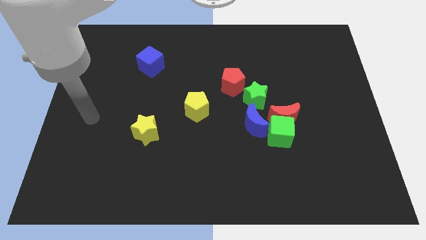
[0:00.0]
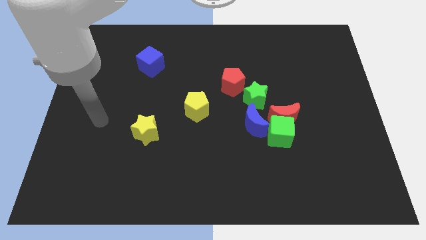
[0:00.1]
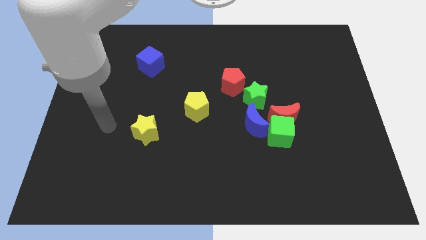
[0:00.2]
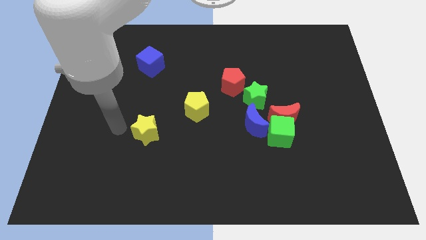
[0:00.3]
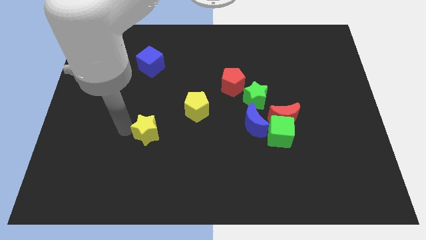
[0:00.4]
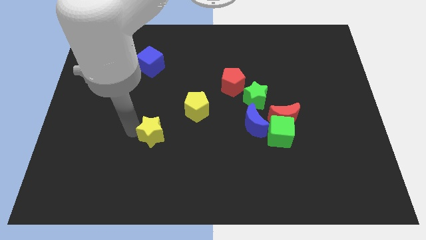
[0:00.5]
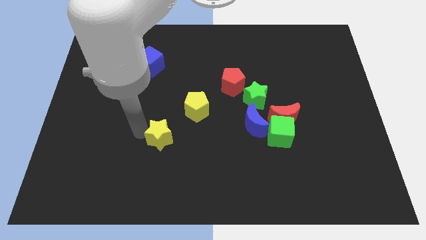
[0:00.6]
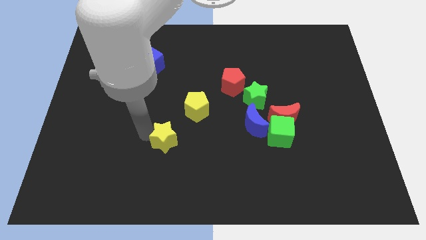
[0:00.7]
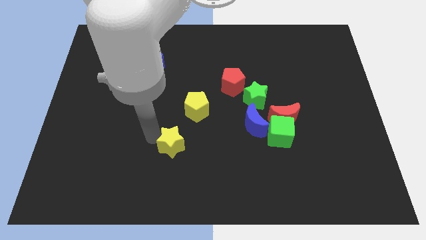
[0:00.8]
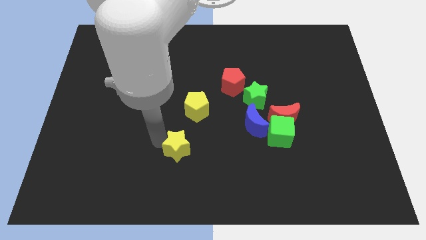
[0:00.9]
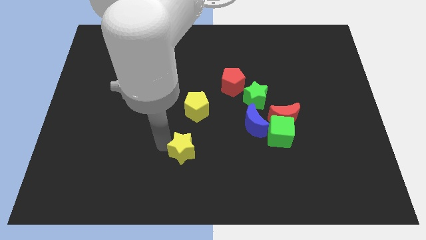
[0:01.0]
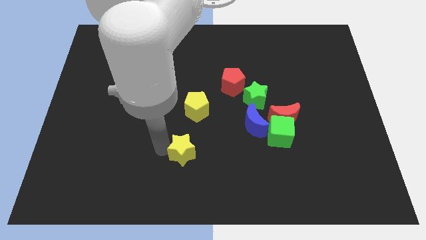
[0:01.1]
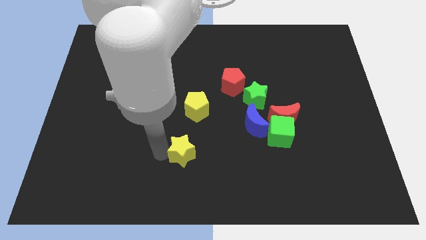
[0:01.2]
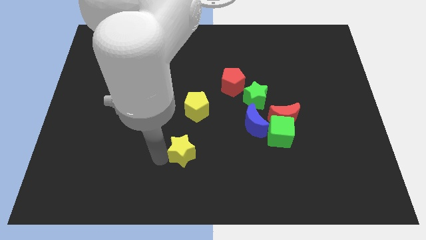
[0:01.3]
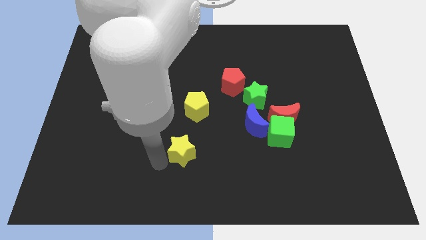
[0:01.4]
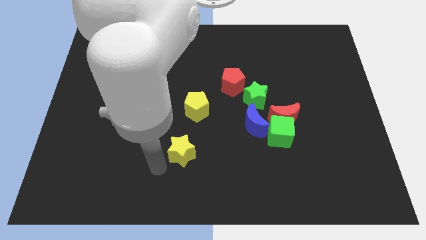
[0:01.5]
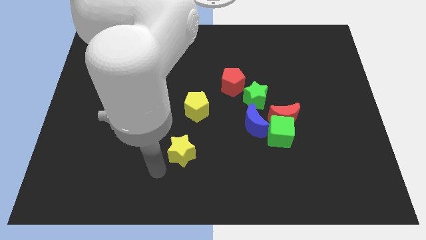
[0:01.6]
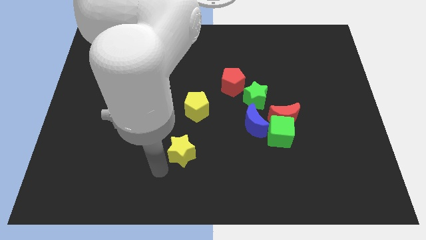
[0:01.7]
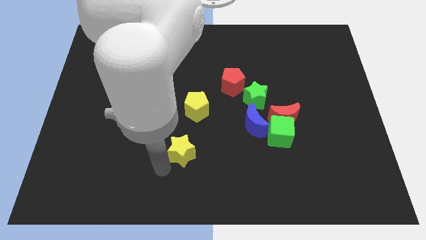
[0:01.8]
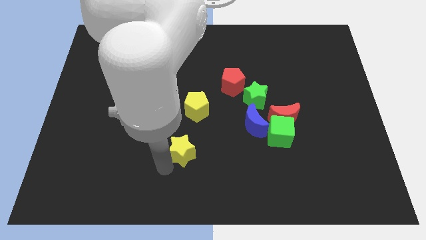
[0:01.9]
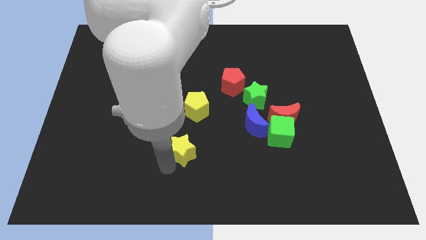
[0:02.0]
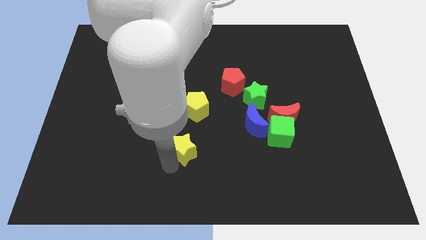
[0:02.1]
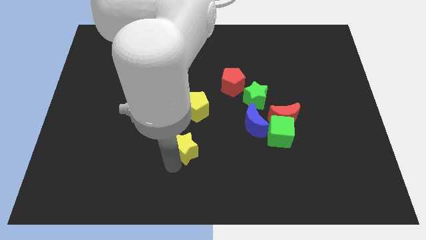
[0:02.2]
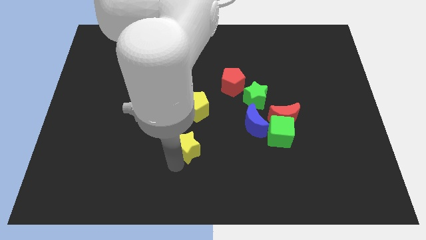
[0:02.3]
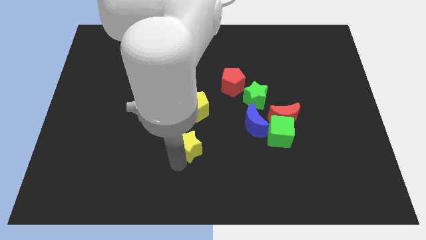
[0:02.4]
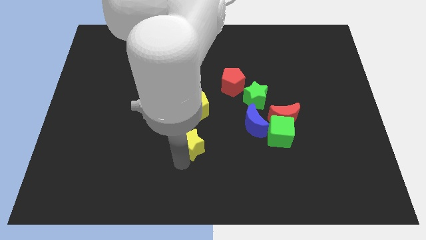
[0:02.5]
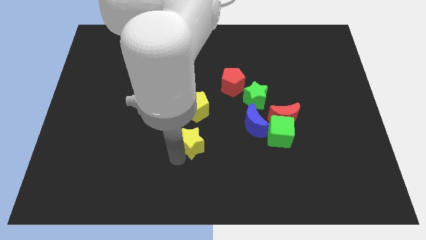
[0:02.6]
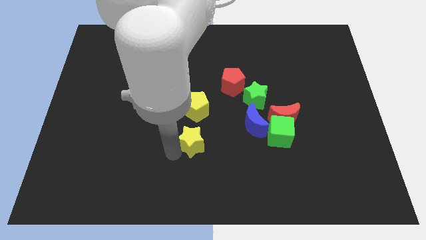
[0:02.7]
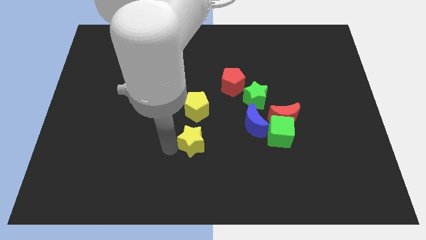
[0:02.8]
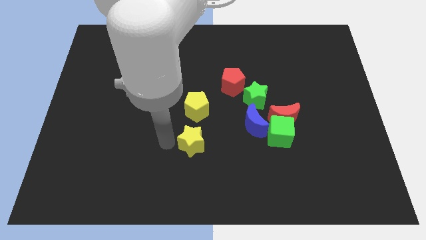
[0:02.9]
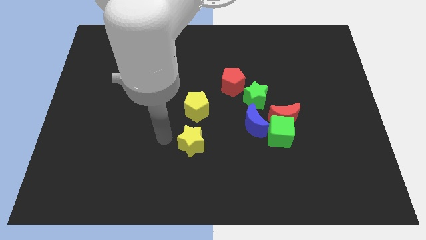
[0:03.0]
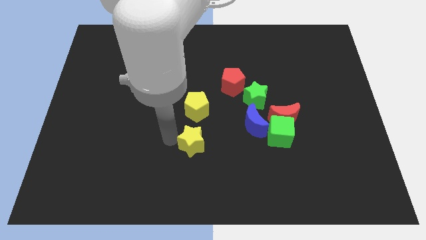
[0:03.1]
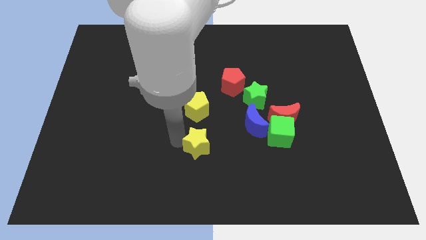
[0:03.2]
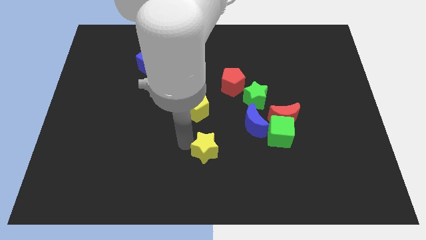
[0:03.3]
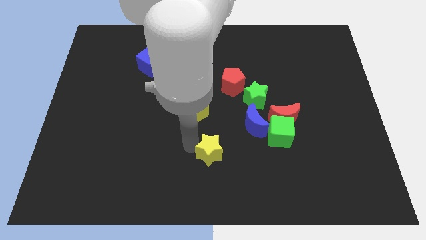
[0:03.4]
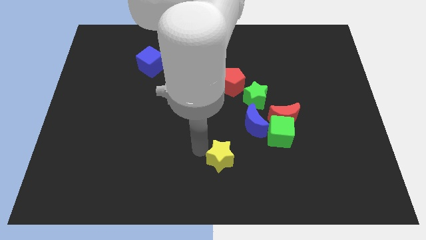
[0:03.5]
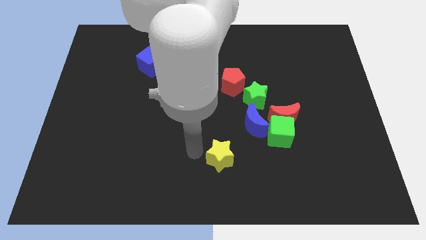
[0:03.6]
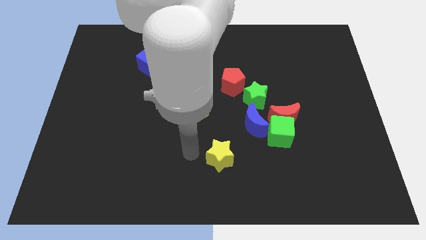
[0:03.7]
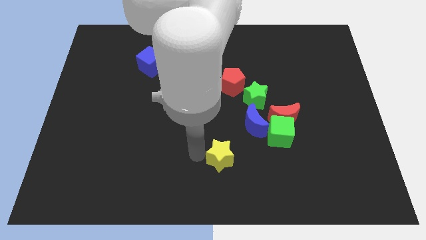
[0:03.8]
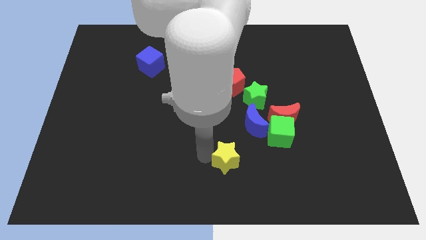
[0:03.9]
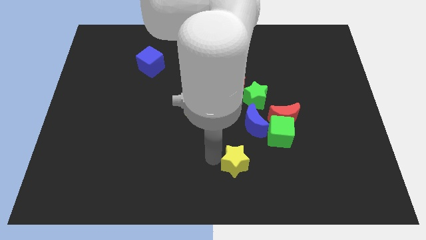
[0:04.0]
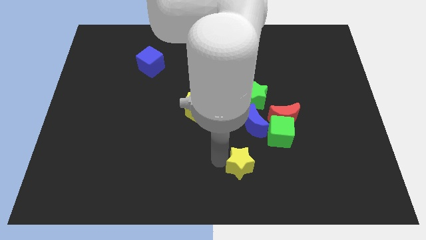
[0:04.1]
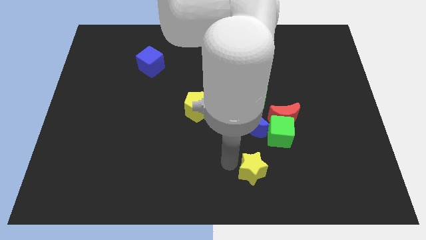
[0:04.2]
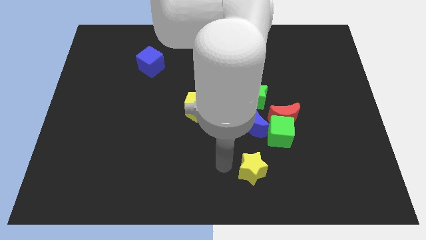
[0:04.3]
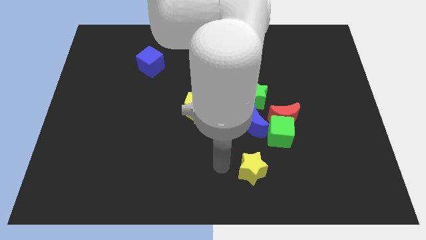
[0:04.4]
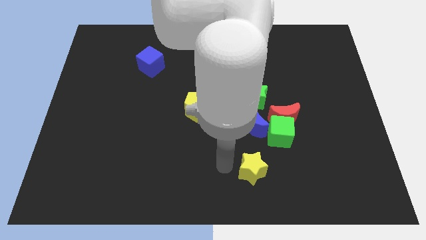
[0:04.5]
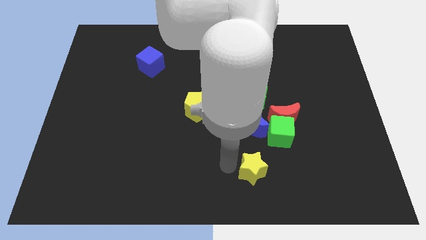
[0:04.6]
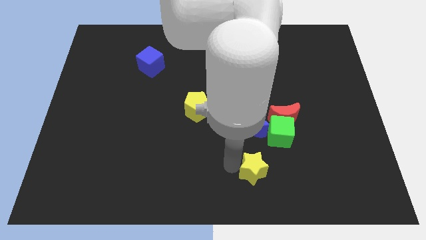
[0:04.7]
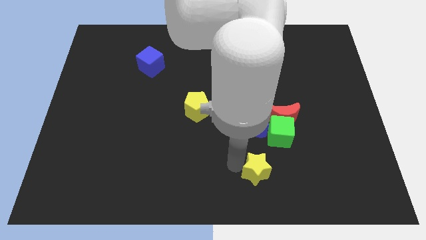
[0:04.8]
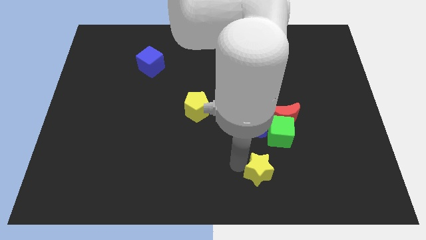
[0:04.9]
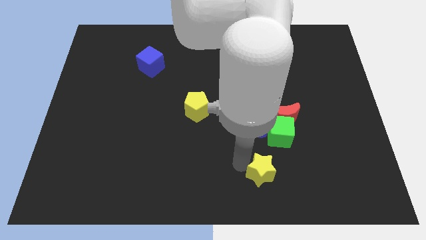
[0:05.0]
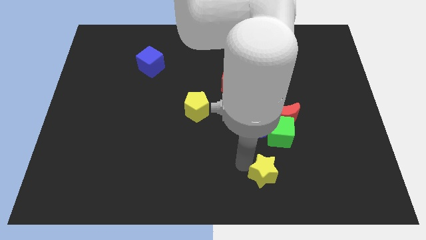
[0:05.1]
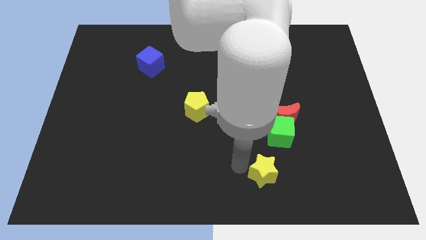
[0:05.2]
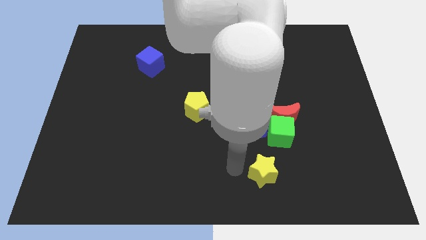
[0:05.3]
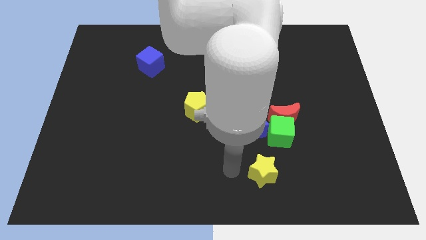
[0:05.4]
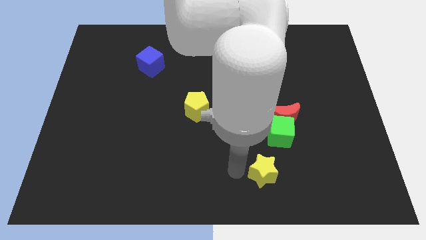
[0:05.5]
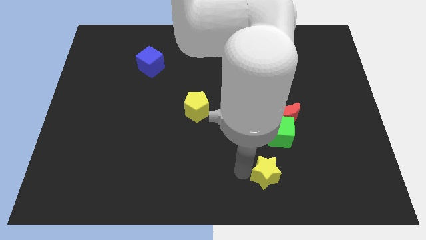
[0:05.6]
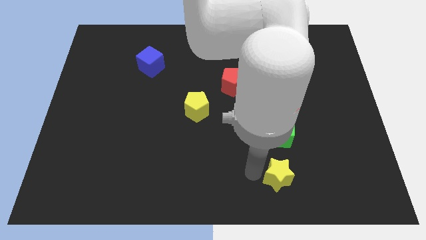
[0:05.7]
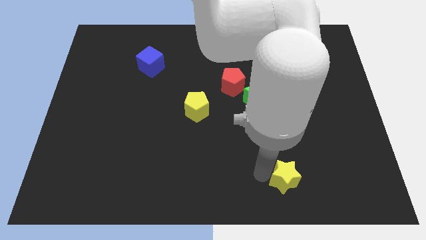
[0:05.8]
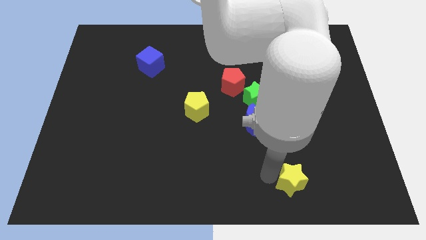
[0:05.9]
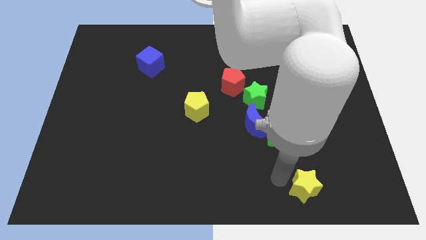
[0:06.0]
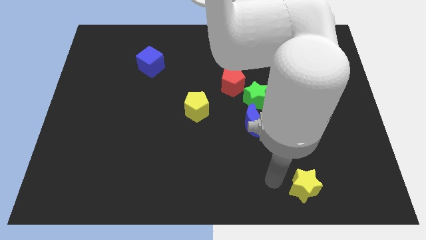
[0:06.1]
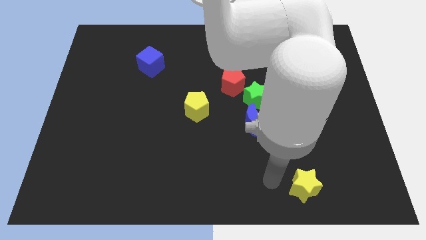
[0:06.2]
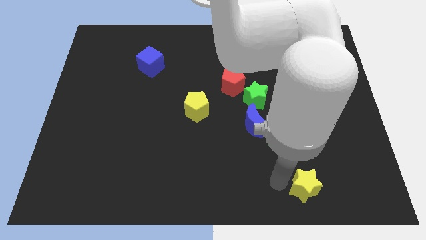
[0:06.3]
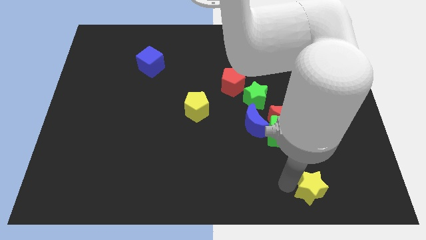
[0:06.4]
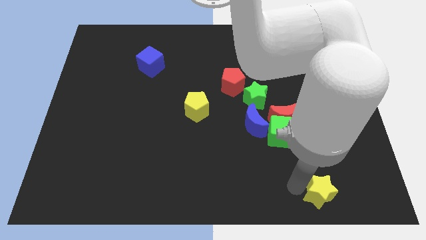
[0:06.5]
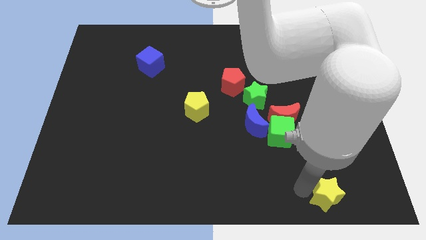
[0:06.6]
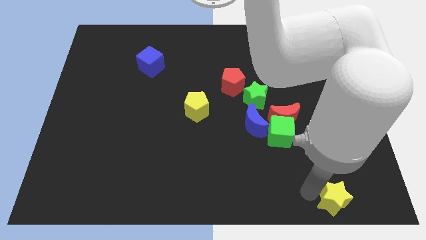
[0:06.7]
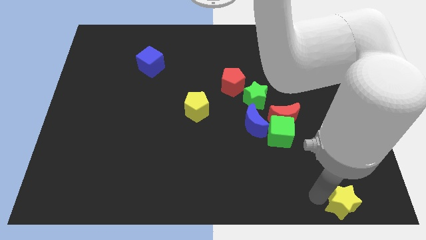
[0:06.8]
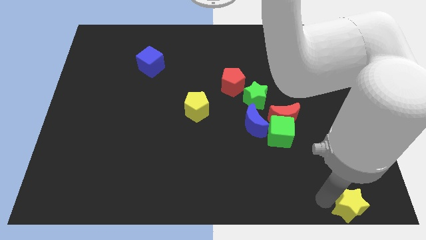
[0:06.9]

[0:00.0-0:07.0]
move the yellow star to the lower right corner
